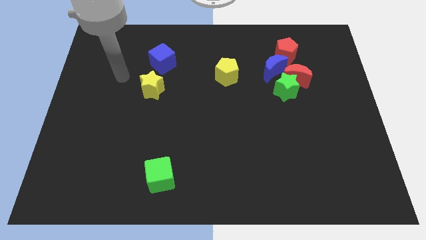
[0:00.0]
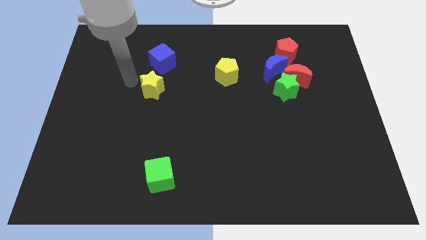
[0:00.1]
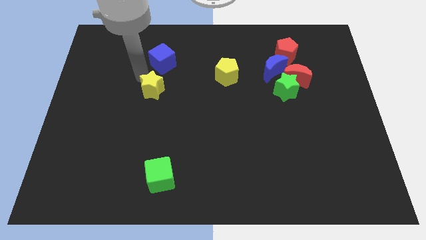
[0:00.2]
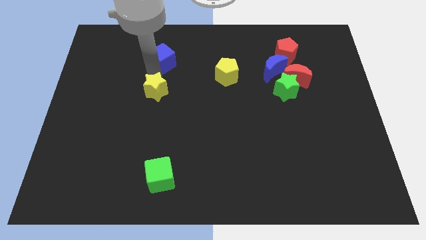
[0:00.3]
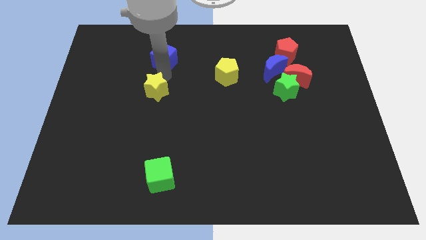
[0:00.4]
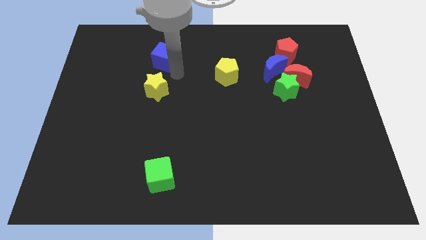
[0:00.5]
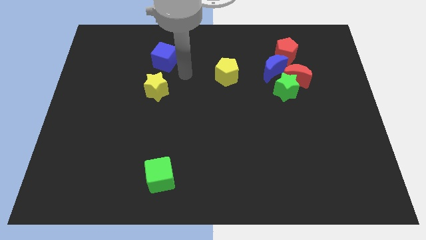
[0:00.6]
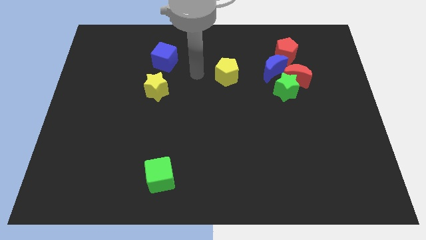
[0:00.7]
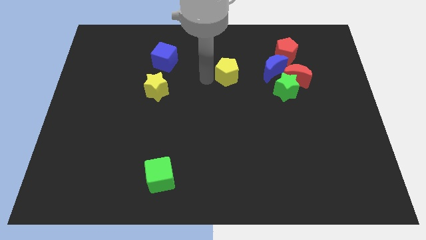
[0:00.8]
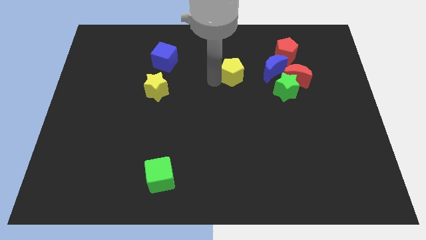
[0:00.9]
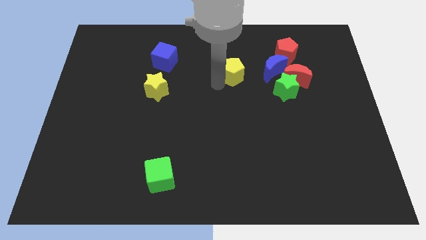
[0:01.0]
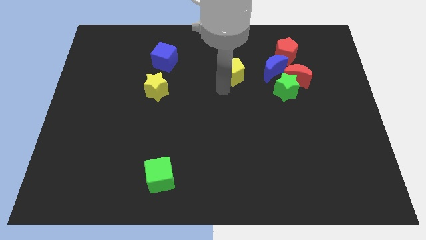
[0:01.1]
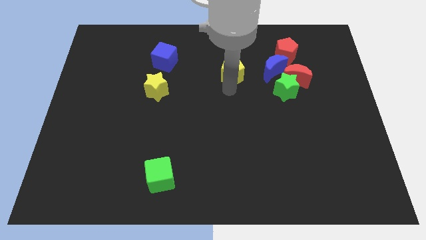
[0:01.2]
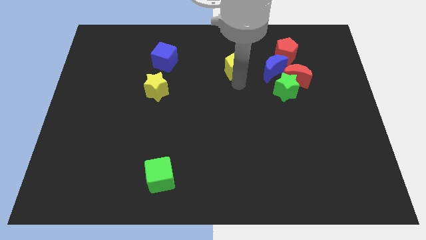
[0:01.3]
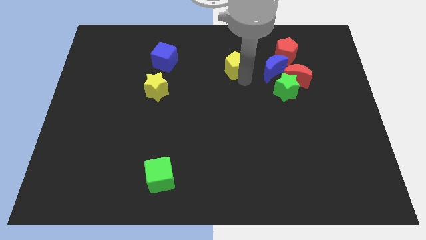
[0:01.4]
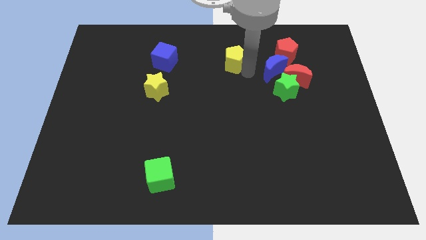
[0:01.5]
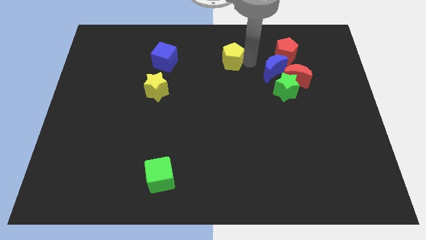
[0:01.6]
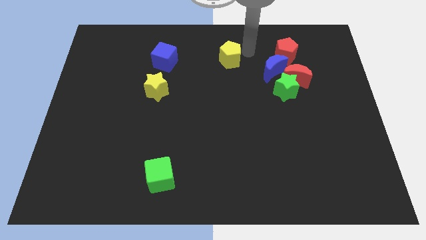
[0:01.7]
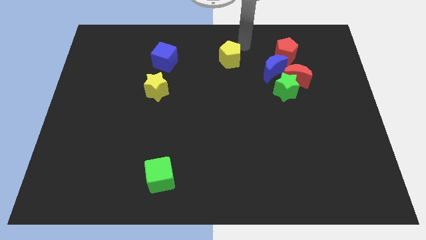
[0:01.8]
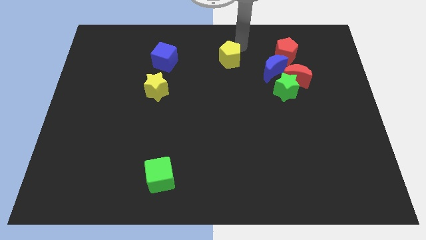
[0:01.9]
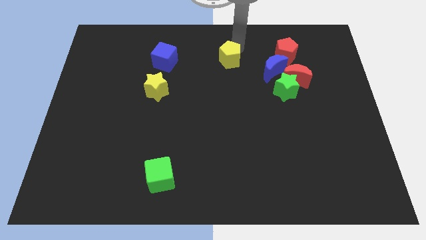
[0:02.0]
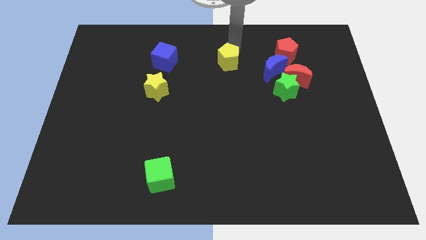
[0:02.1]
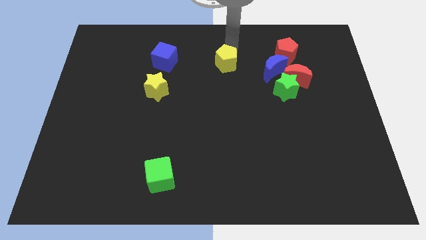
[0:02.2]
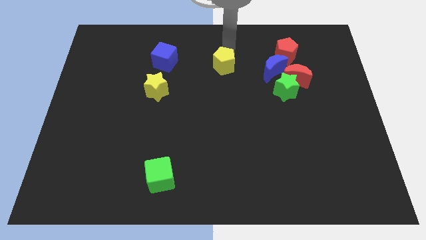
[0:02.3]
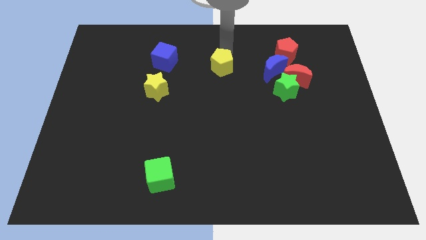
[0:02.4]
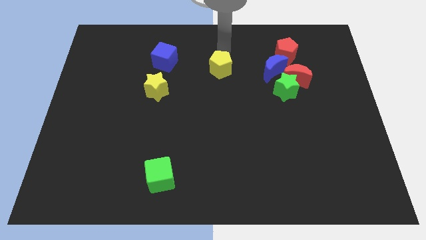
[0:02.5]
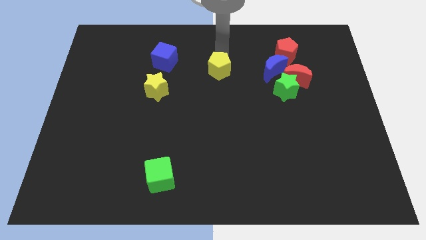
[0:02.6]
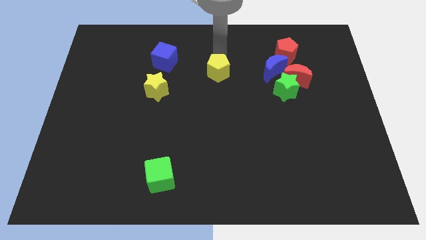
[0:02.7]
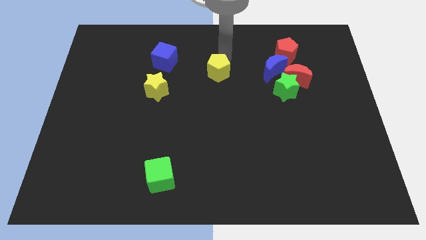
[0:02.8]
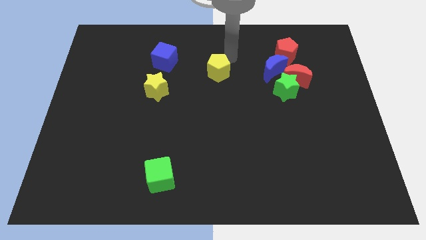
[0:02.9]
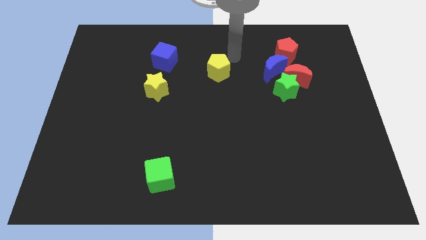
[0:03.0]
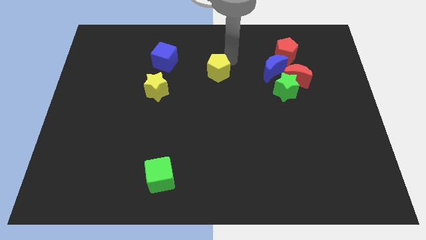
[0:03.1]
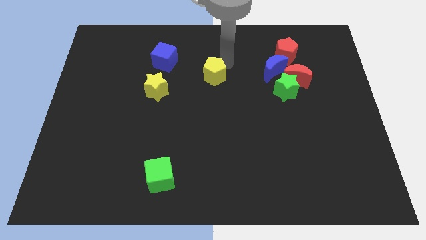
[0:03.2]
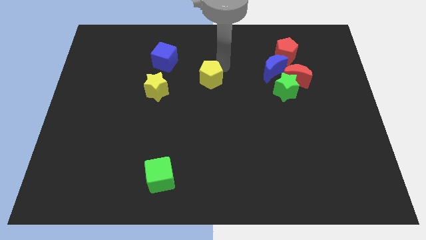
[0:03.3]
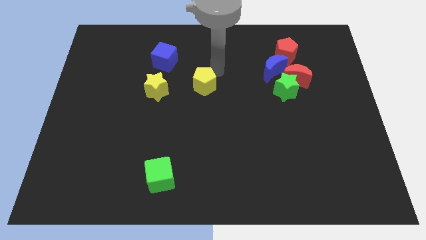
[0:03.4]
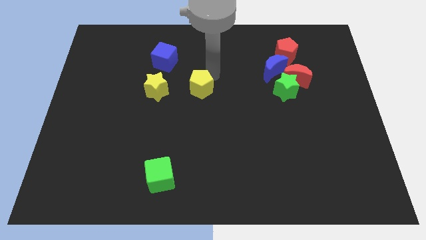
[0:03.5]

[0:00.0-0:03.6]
slide the yellow pentagon slightly downwards and then left

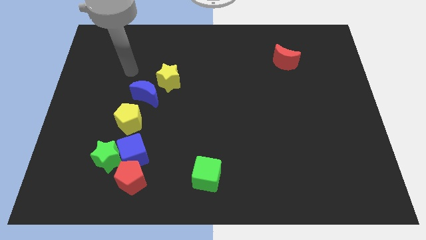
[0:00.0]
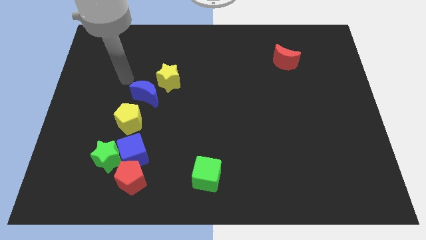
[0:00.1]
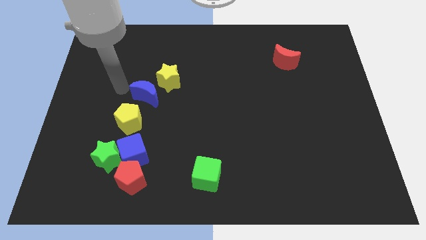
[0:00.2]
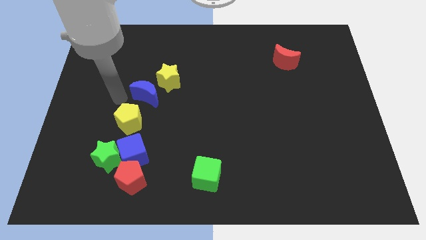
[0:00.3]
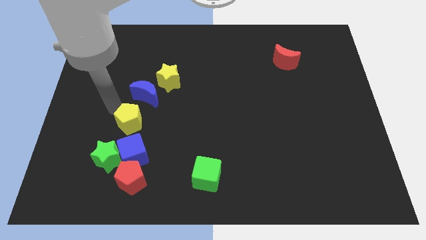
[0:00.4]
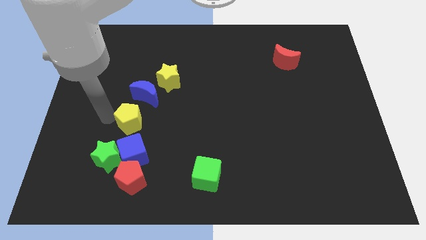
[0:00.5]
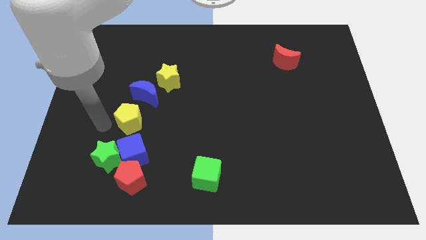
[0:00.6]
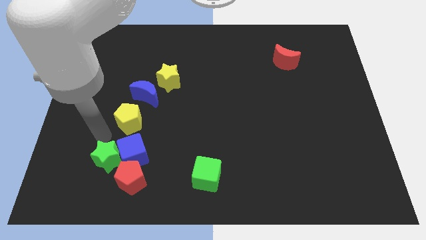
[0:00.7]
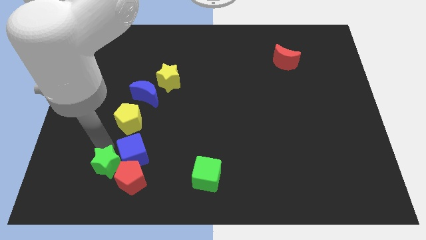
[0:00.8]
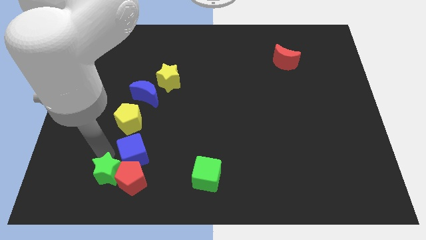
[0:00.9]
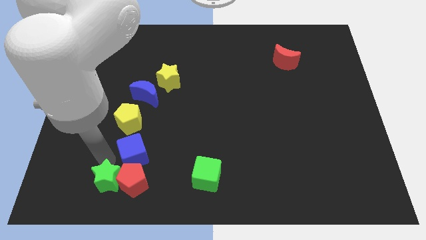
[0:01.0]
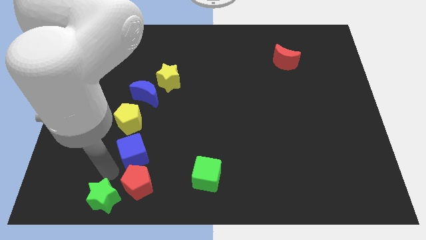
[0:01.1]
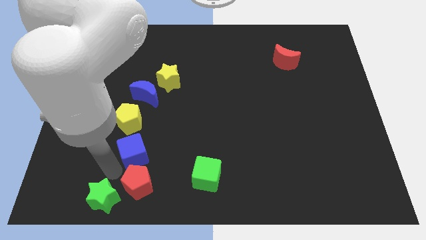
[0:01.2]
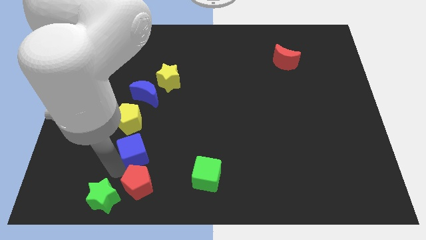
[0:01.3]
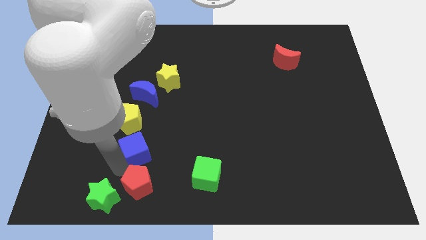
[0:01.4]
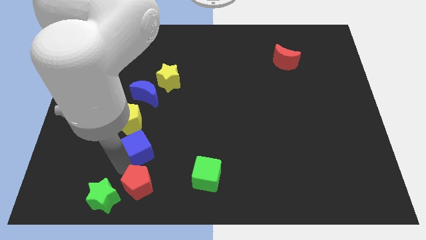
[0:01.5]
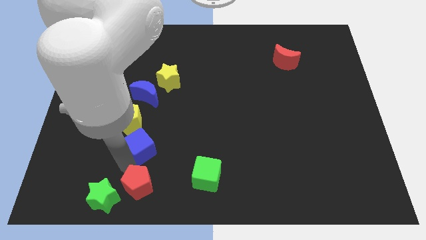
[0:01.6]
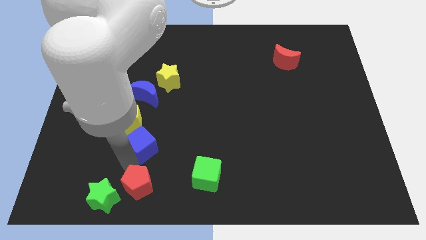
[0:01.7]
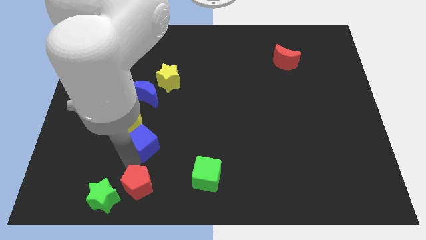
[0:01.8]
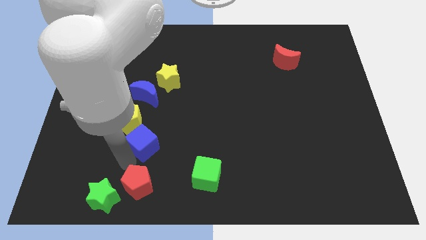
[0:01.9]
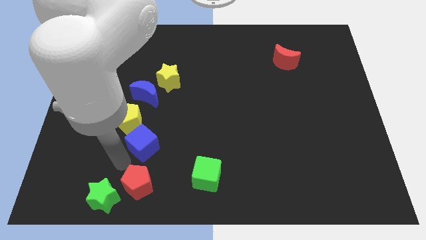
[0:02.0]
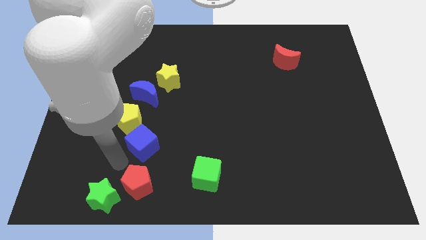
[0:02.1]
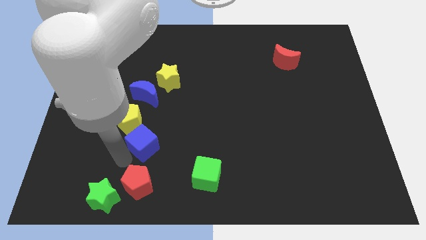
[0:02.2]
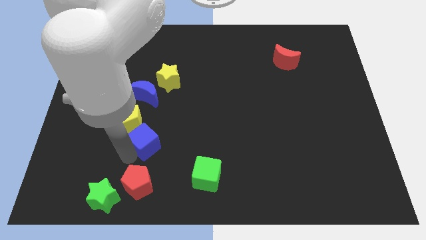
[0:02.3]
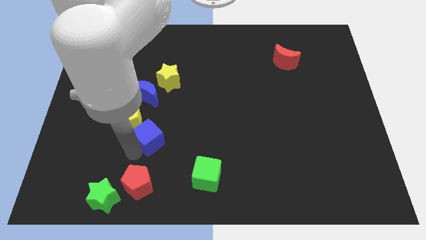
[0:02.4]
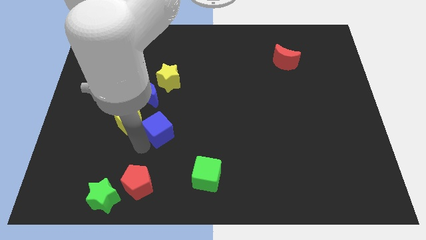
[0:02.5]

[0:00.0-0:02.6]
slightly push the blue cube upwards and then to the right

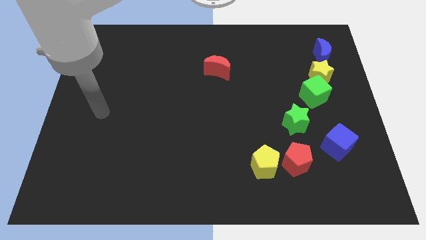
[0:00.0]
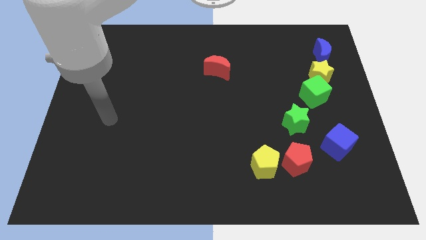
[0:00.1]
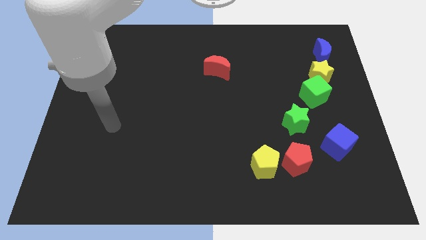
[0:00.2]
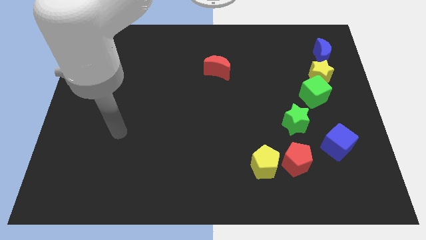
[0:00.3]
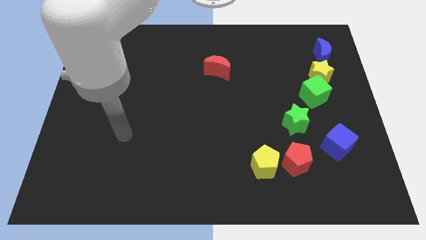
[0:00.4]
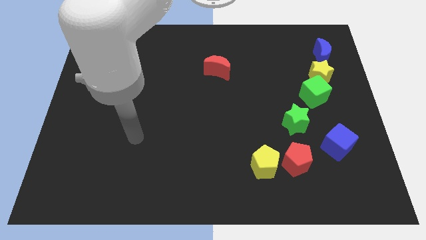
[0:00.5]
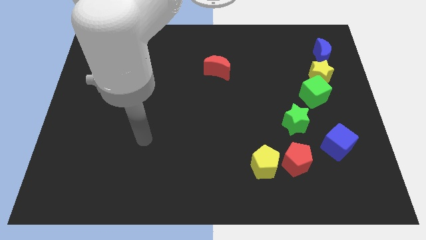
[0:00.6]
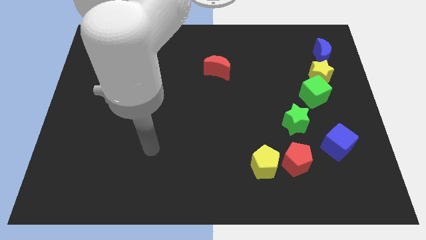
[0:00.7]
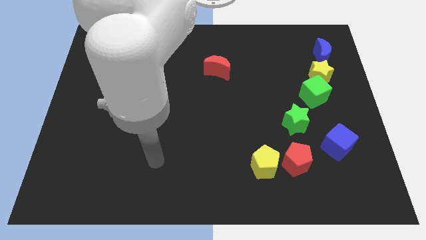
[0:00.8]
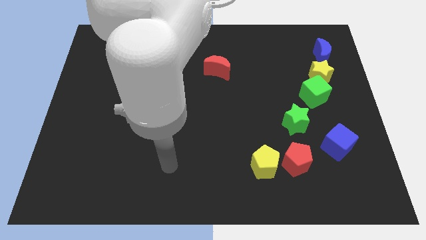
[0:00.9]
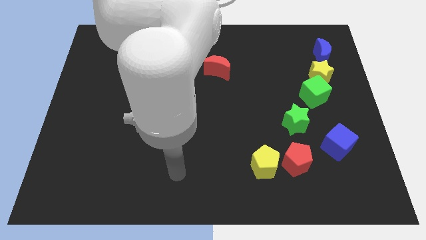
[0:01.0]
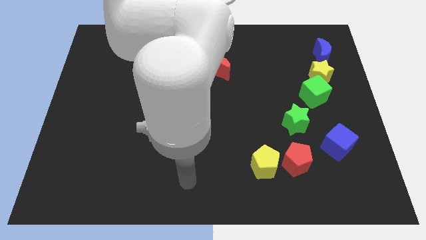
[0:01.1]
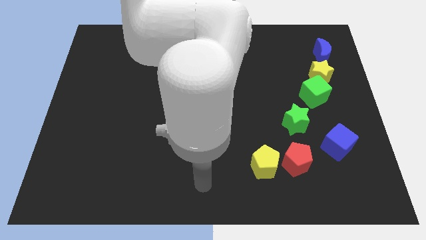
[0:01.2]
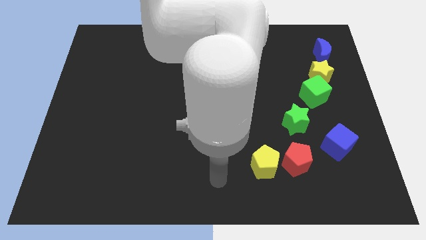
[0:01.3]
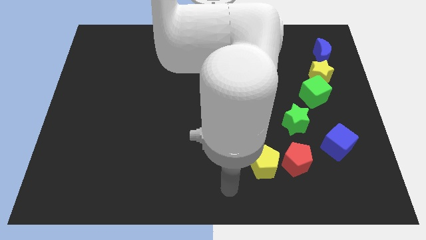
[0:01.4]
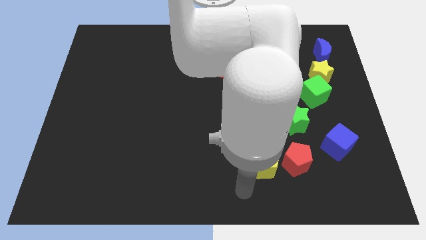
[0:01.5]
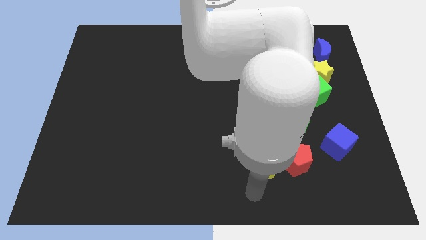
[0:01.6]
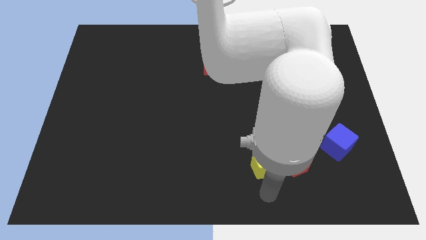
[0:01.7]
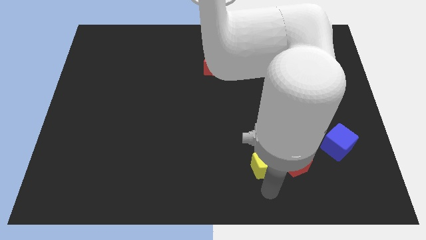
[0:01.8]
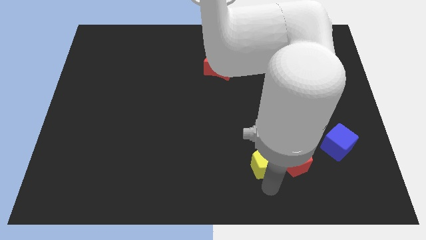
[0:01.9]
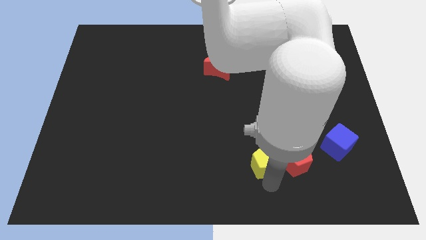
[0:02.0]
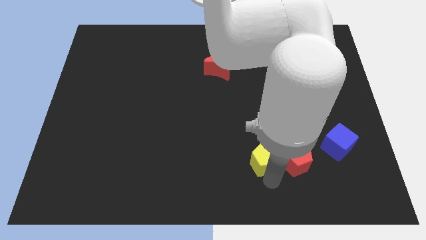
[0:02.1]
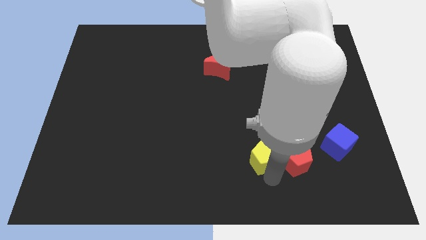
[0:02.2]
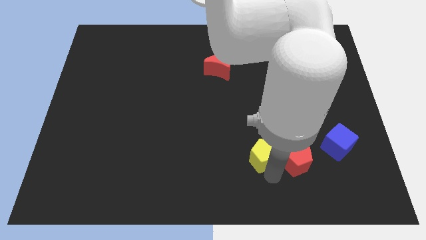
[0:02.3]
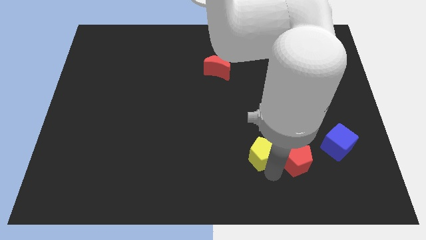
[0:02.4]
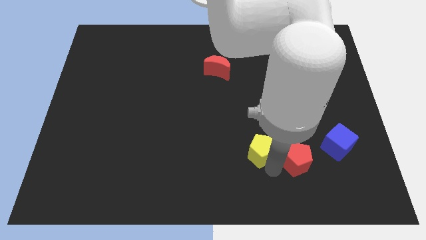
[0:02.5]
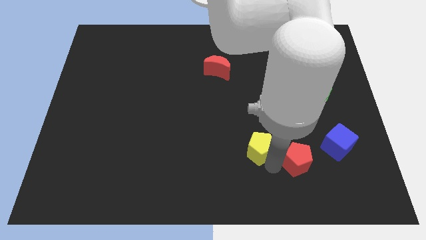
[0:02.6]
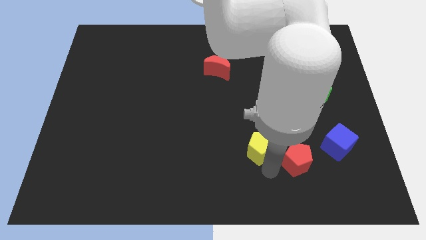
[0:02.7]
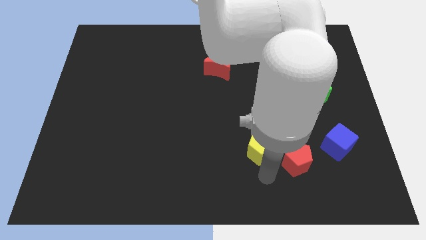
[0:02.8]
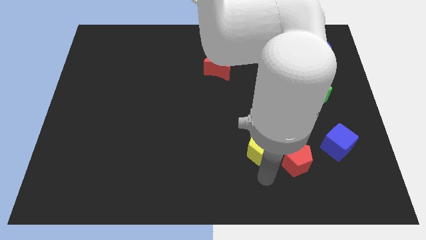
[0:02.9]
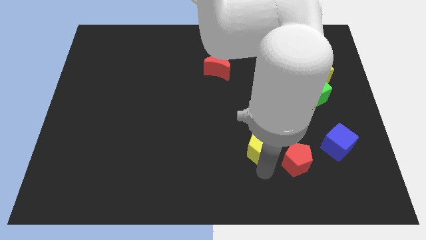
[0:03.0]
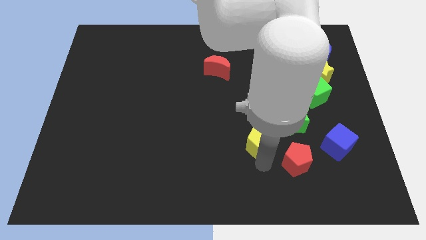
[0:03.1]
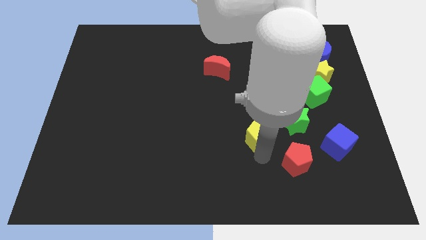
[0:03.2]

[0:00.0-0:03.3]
move the yellow pentagon up somewhat
